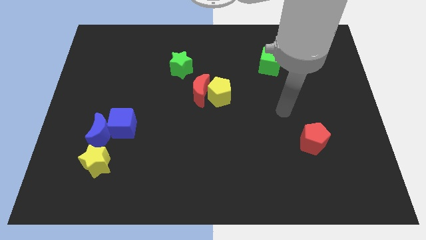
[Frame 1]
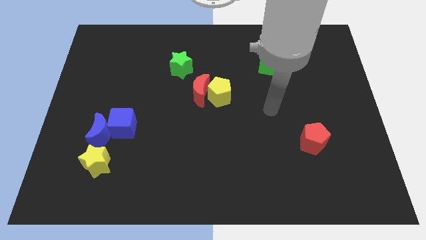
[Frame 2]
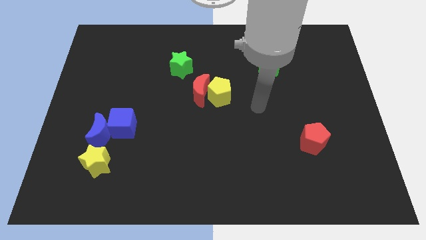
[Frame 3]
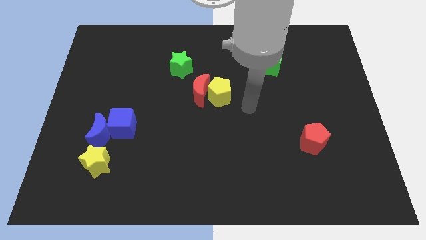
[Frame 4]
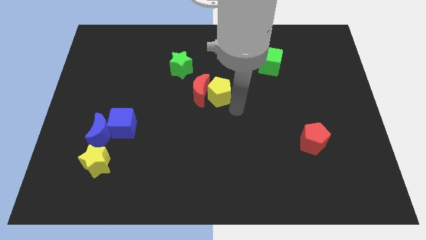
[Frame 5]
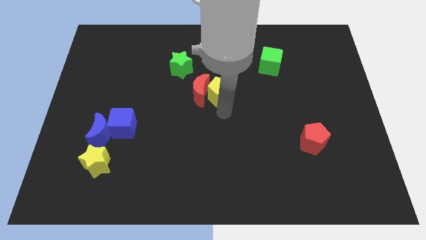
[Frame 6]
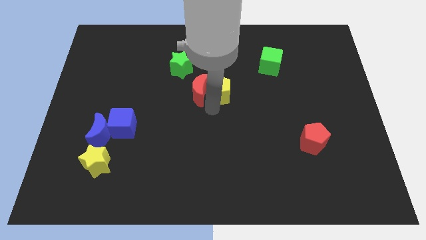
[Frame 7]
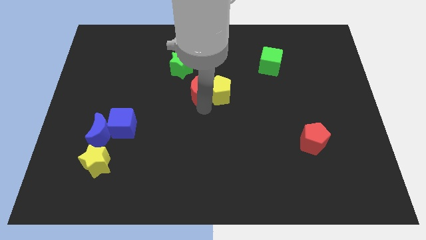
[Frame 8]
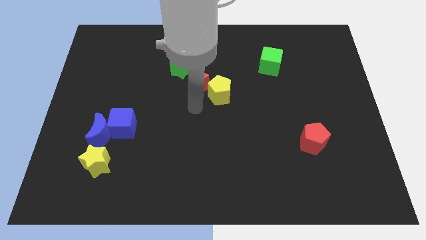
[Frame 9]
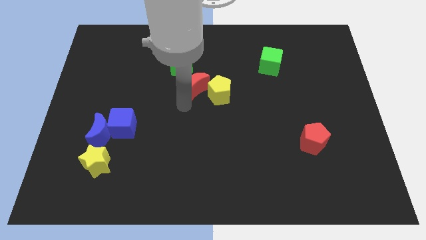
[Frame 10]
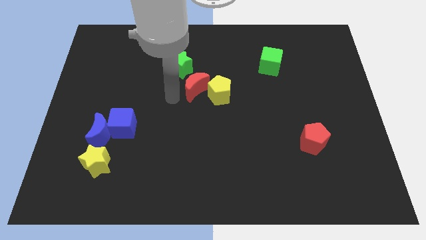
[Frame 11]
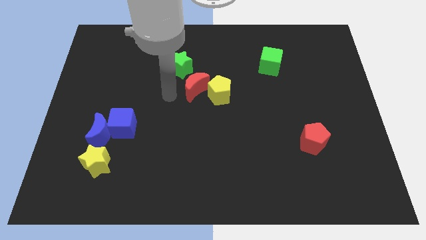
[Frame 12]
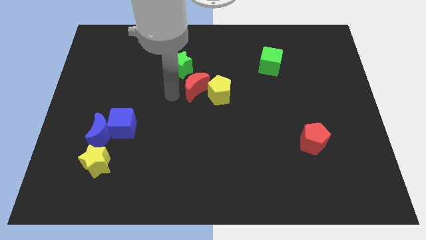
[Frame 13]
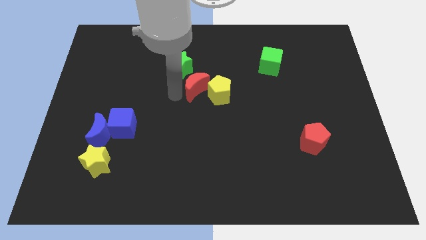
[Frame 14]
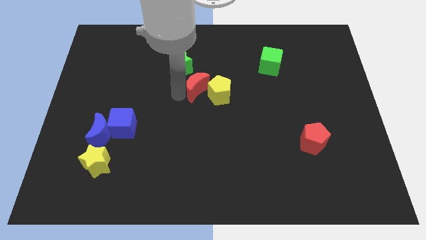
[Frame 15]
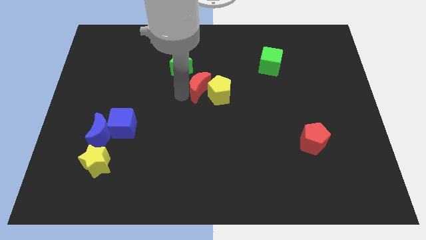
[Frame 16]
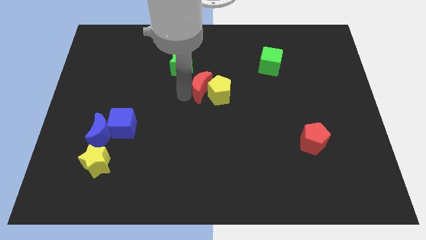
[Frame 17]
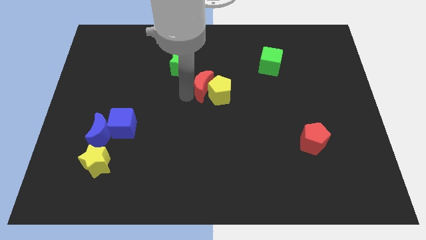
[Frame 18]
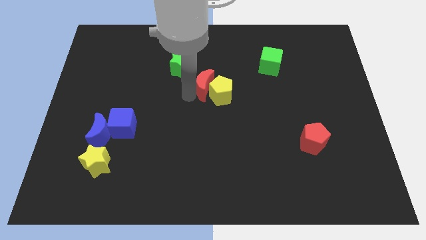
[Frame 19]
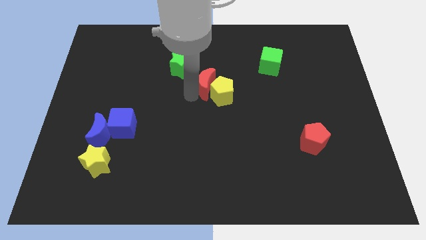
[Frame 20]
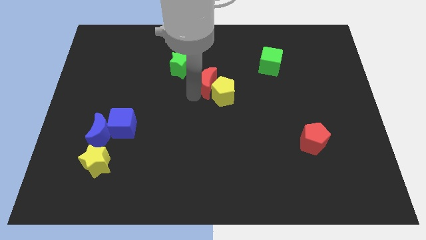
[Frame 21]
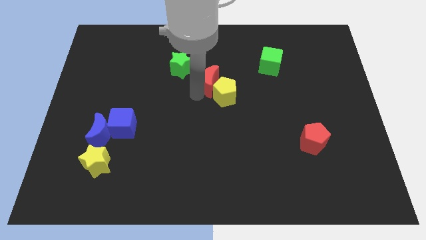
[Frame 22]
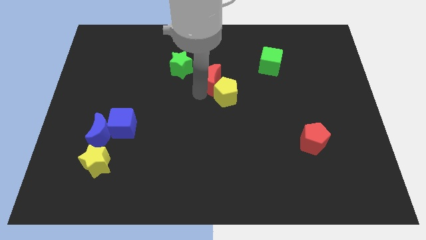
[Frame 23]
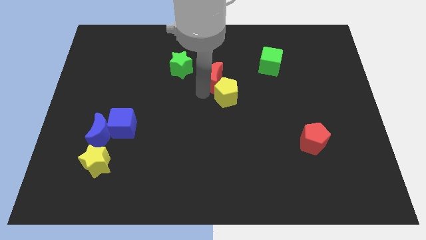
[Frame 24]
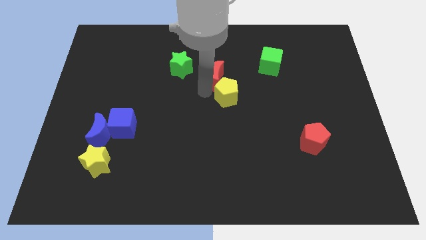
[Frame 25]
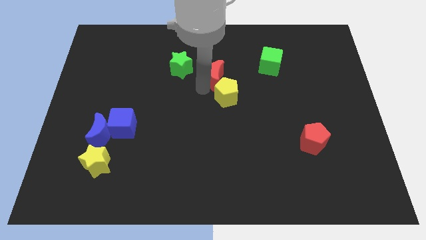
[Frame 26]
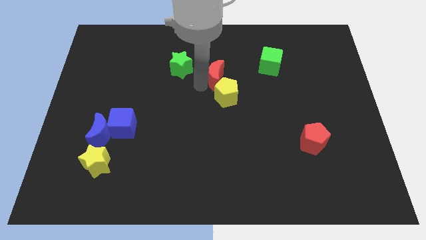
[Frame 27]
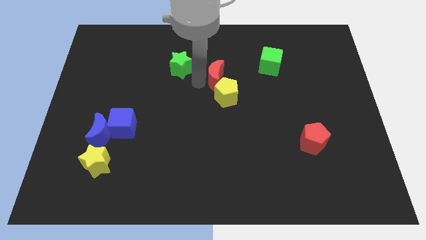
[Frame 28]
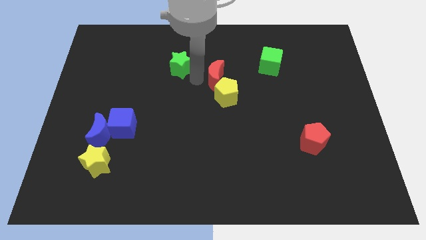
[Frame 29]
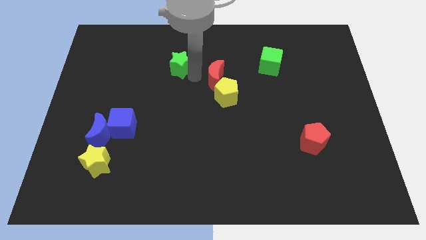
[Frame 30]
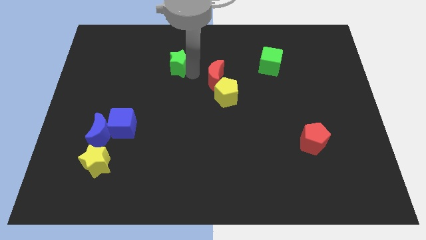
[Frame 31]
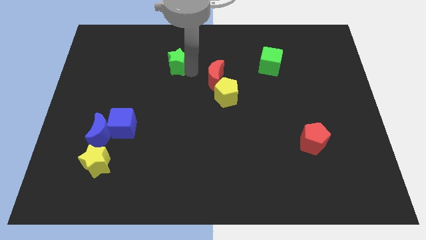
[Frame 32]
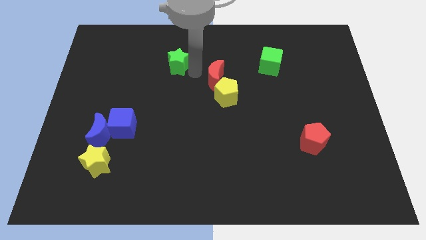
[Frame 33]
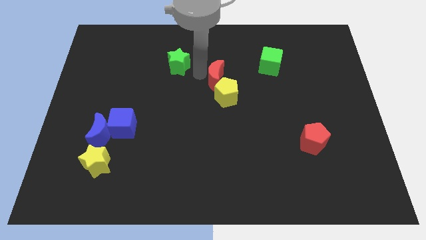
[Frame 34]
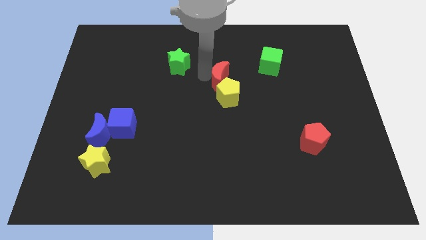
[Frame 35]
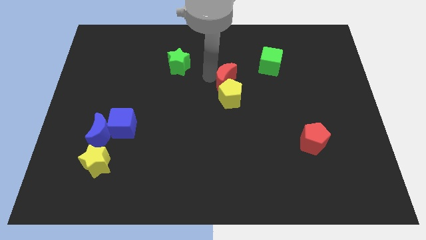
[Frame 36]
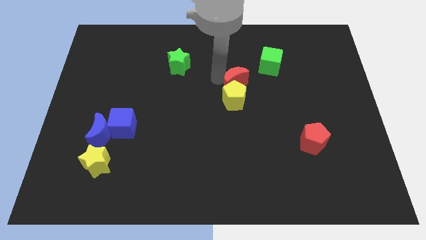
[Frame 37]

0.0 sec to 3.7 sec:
move the red moon a bit to the right

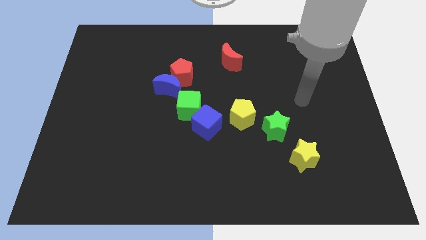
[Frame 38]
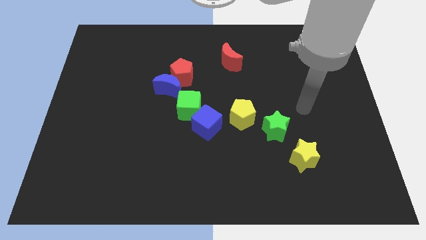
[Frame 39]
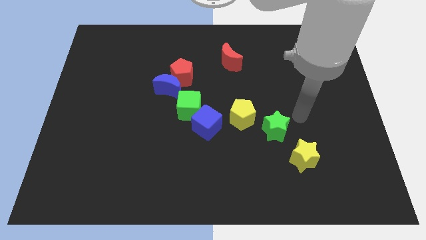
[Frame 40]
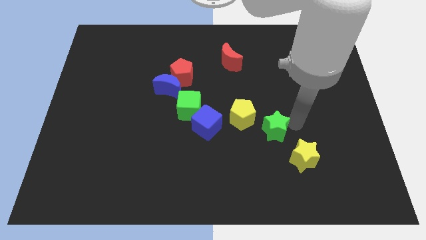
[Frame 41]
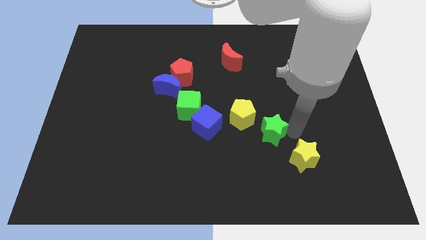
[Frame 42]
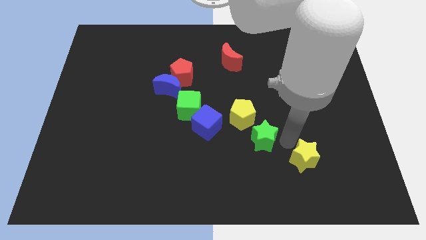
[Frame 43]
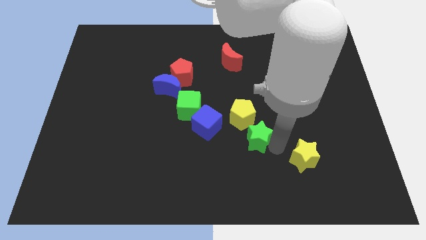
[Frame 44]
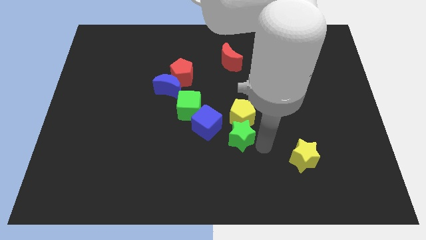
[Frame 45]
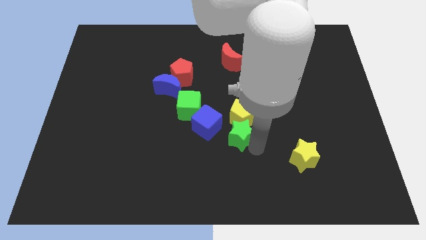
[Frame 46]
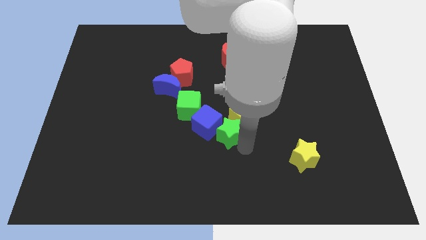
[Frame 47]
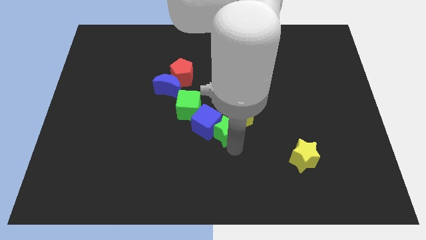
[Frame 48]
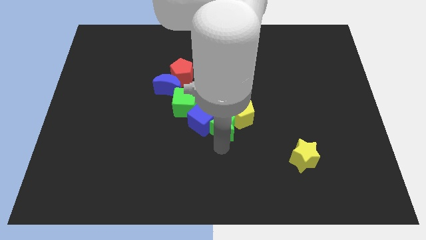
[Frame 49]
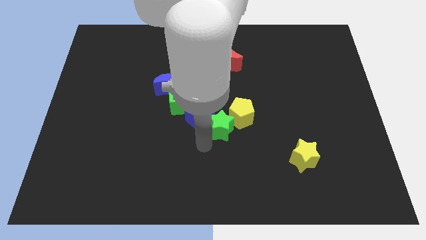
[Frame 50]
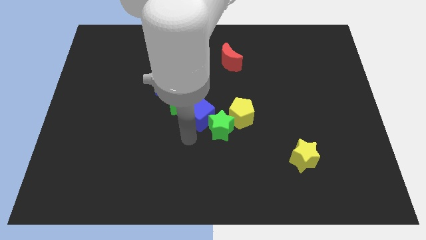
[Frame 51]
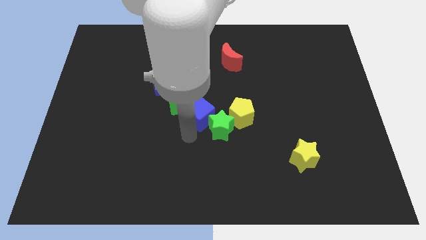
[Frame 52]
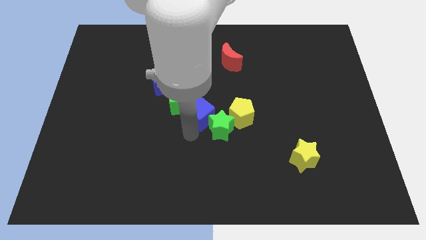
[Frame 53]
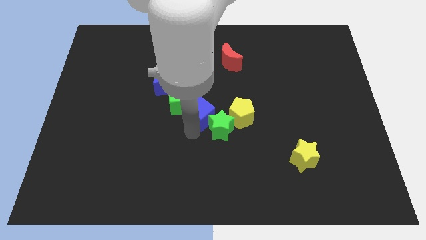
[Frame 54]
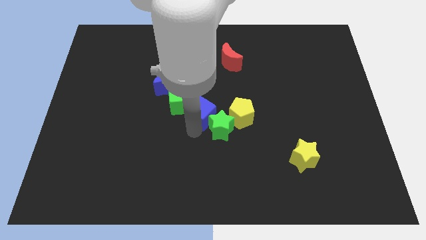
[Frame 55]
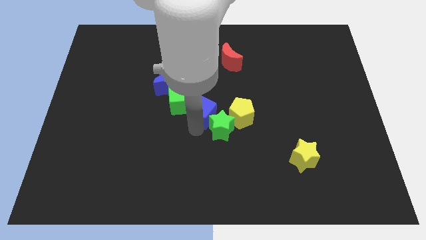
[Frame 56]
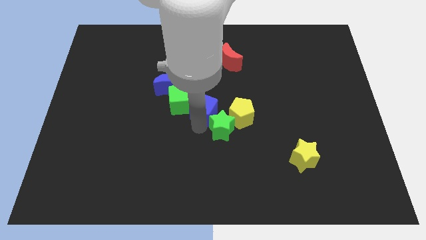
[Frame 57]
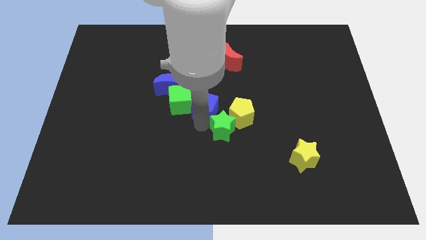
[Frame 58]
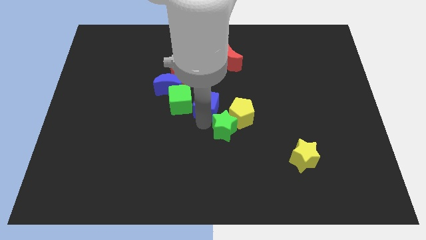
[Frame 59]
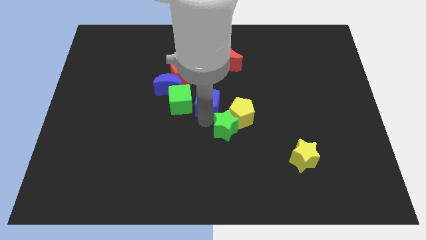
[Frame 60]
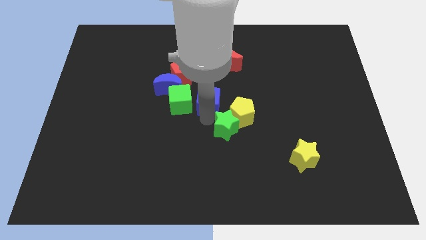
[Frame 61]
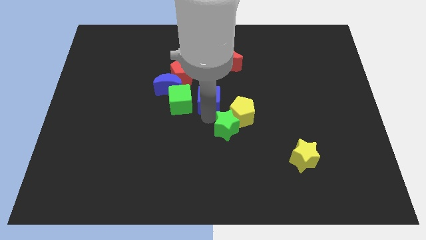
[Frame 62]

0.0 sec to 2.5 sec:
push the blue cube somewhat upwards

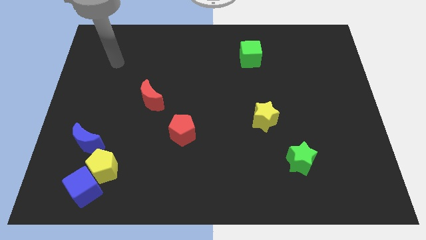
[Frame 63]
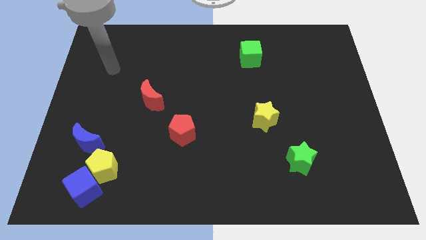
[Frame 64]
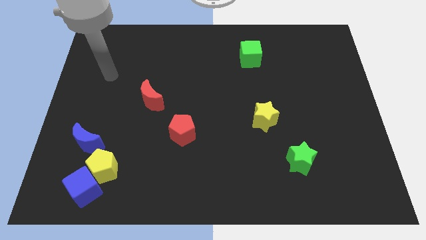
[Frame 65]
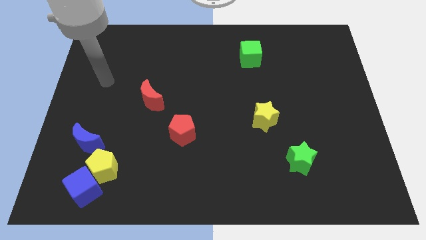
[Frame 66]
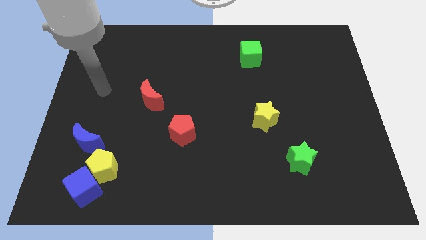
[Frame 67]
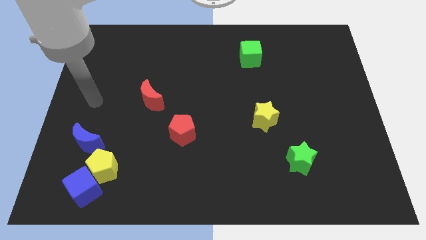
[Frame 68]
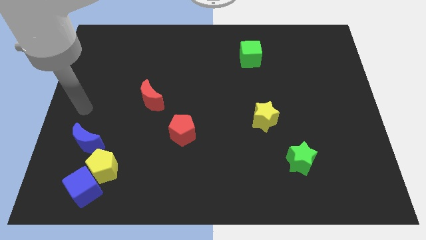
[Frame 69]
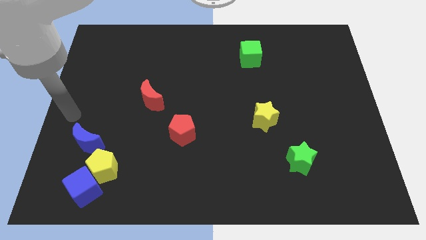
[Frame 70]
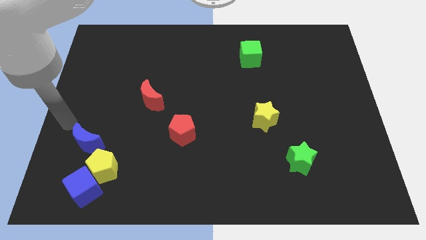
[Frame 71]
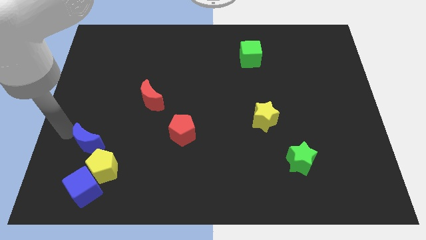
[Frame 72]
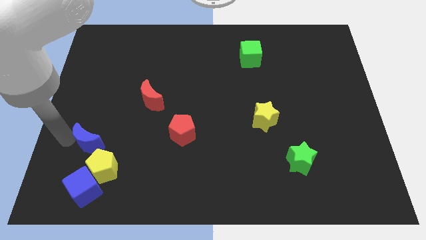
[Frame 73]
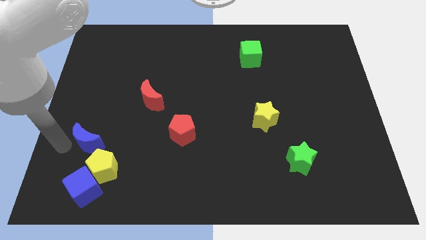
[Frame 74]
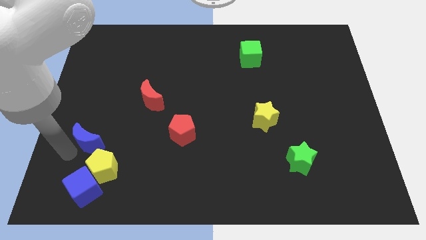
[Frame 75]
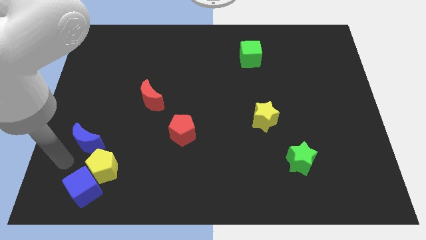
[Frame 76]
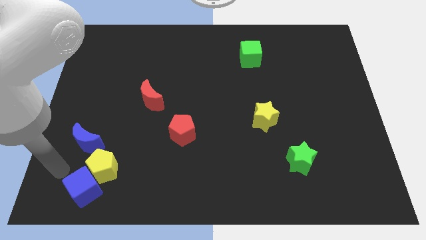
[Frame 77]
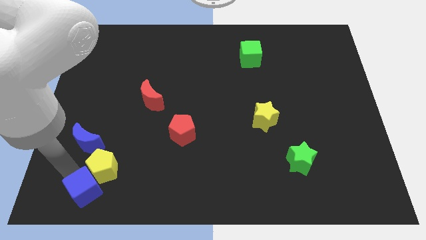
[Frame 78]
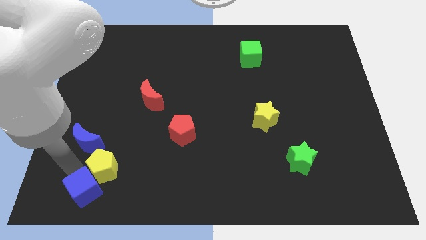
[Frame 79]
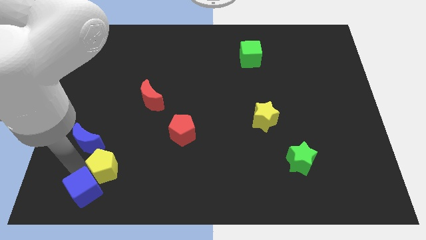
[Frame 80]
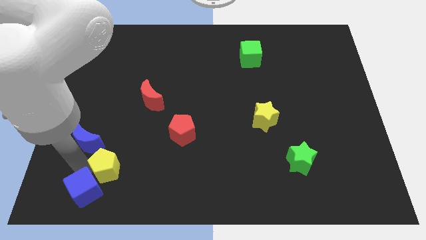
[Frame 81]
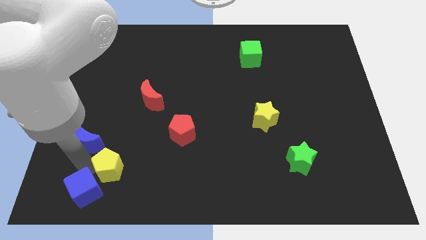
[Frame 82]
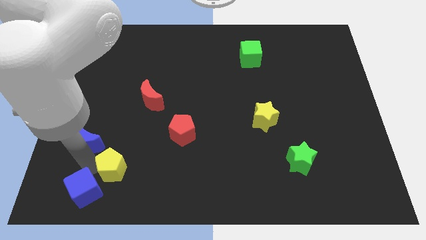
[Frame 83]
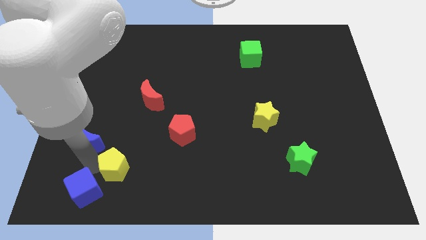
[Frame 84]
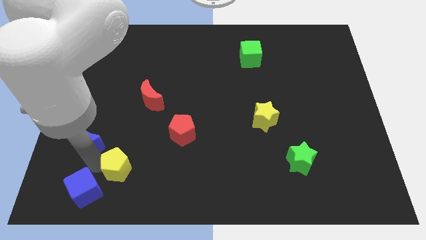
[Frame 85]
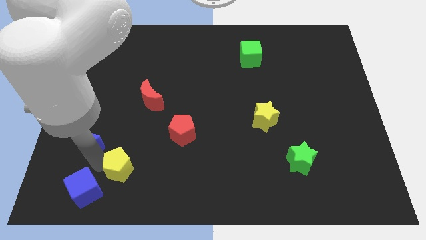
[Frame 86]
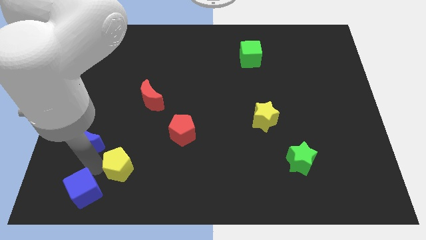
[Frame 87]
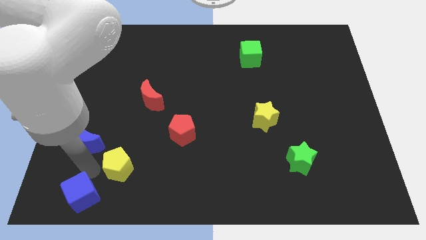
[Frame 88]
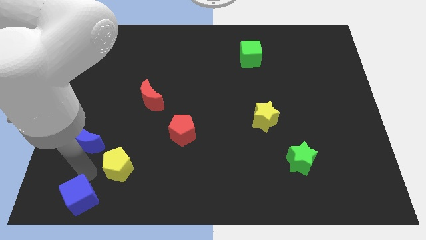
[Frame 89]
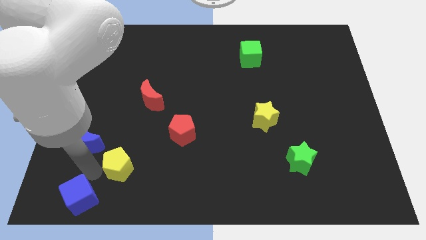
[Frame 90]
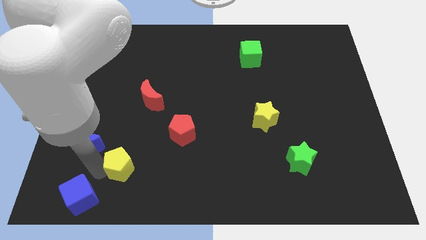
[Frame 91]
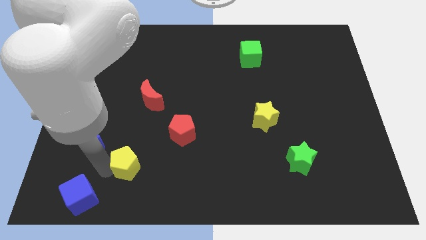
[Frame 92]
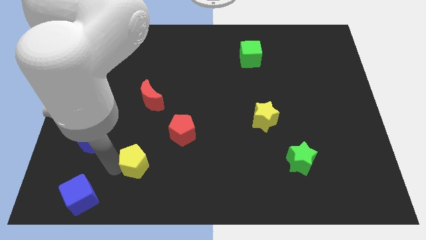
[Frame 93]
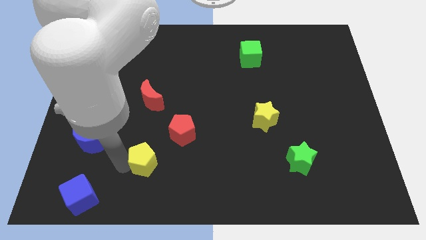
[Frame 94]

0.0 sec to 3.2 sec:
push the yellow pentagon to the right a little
